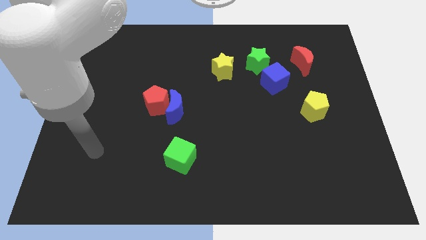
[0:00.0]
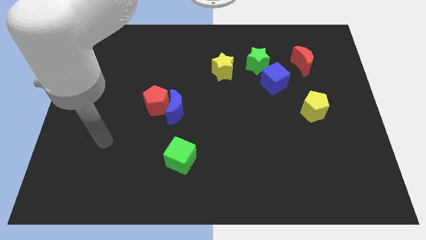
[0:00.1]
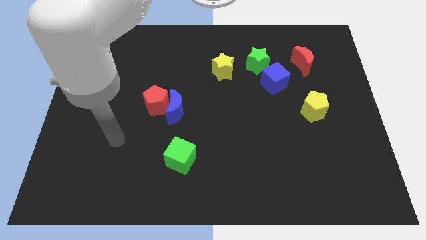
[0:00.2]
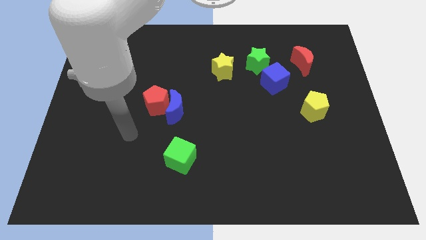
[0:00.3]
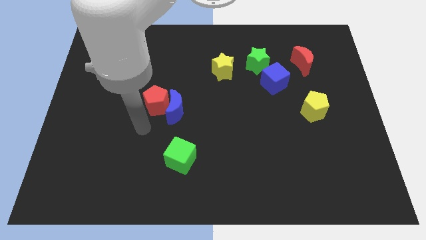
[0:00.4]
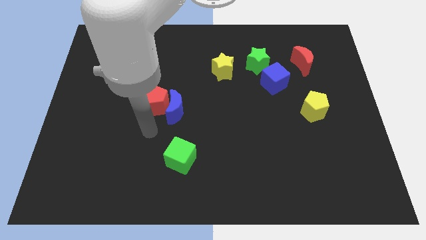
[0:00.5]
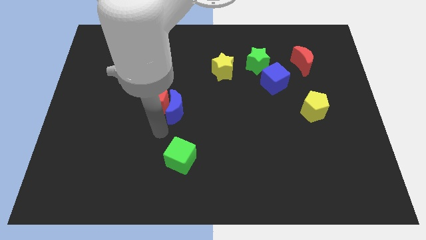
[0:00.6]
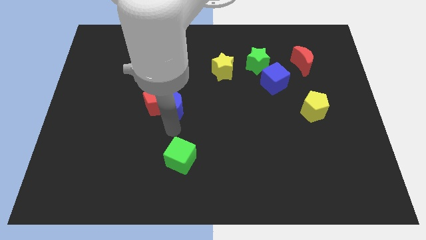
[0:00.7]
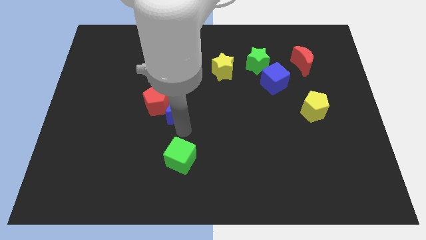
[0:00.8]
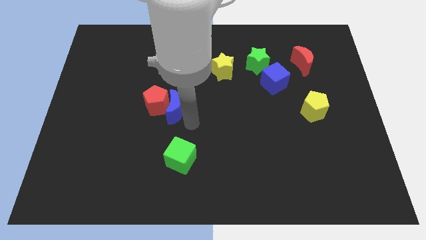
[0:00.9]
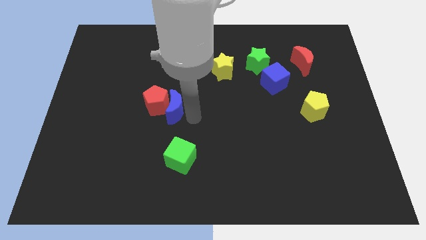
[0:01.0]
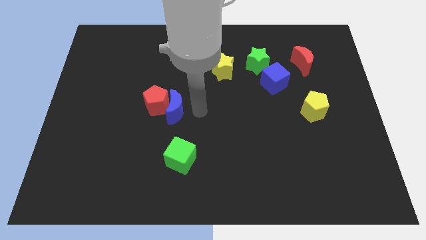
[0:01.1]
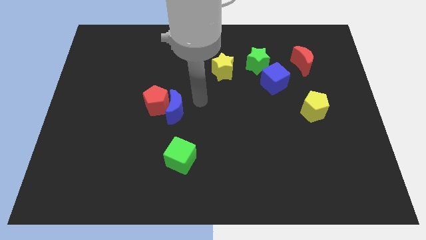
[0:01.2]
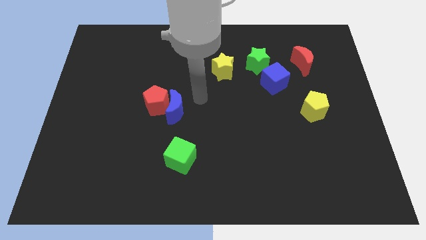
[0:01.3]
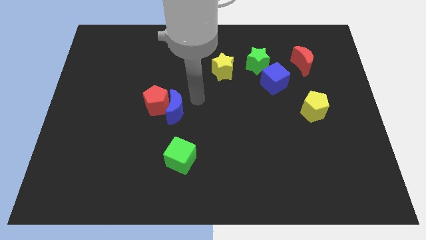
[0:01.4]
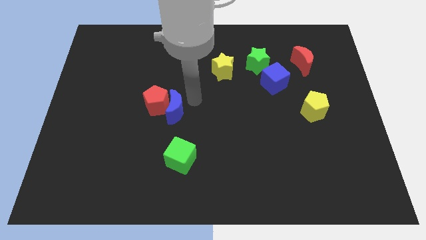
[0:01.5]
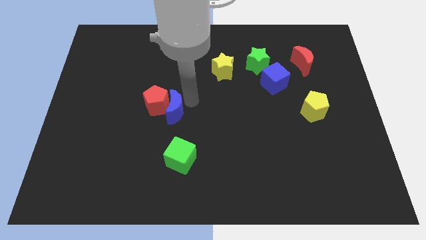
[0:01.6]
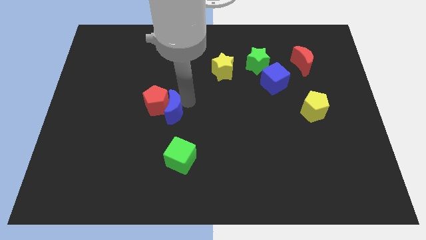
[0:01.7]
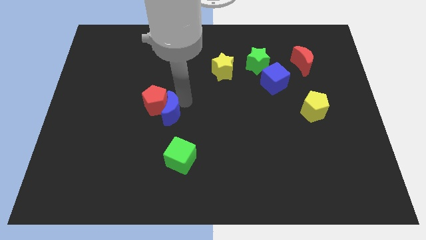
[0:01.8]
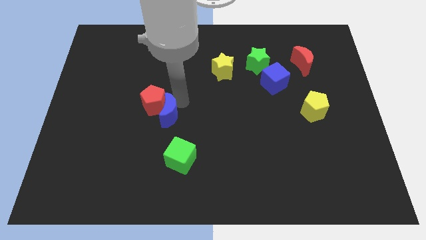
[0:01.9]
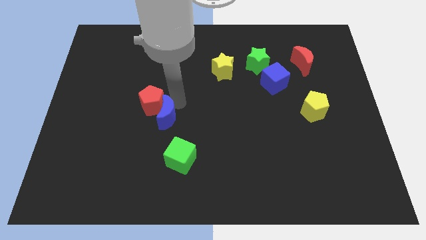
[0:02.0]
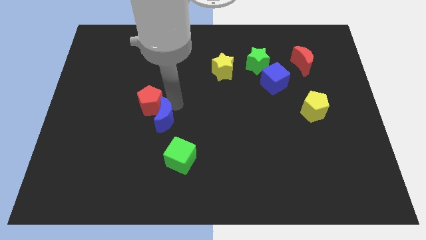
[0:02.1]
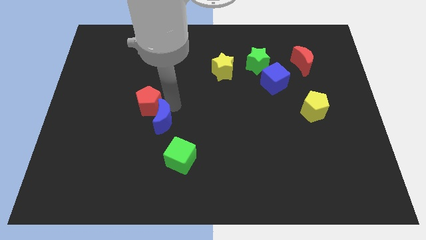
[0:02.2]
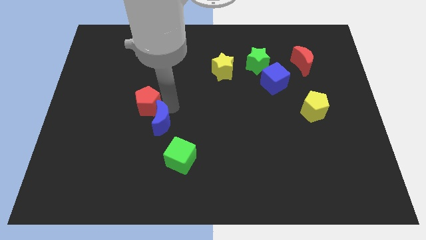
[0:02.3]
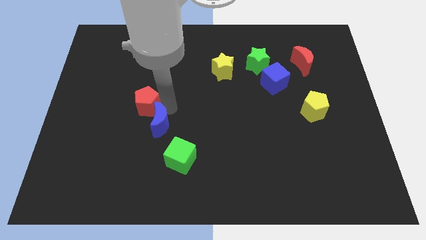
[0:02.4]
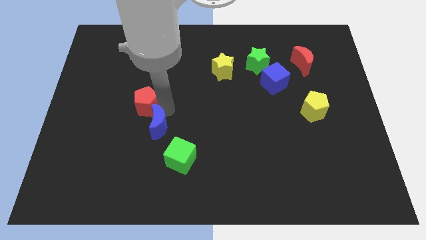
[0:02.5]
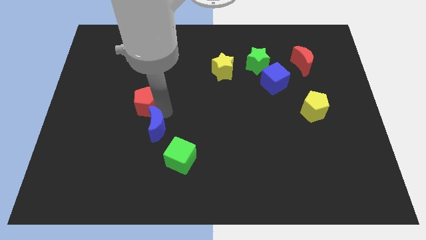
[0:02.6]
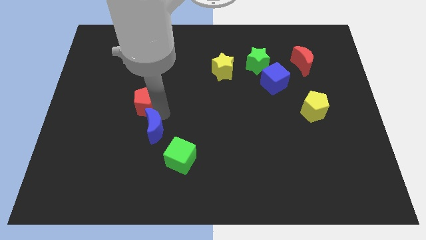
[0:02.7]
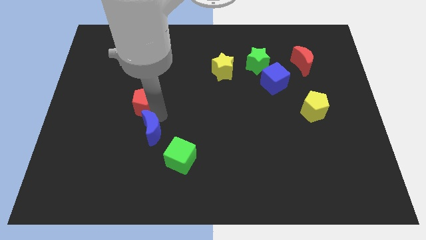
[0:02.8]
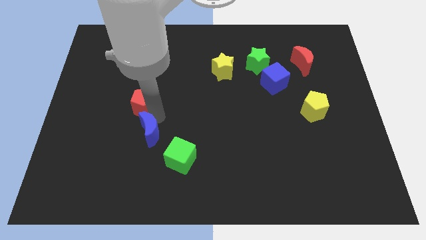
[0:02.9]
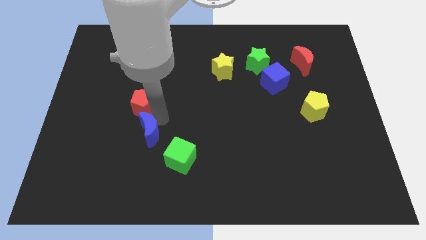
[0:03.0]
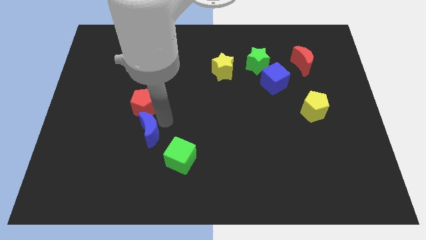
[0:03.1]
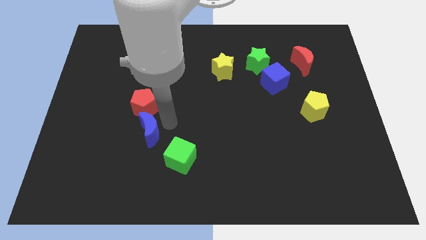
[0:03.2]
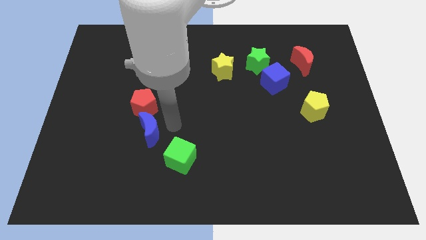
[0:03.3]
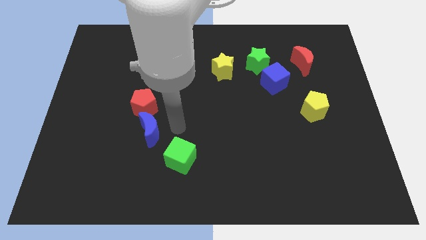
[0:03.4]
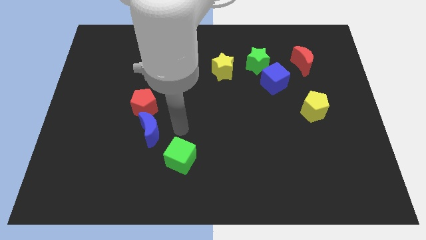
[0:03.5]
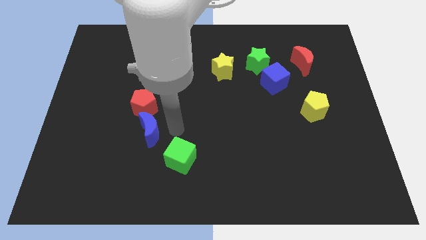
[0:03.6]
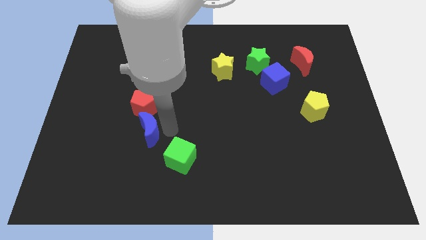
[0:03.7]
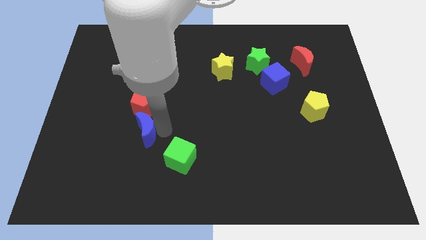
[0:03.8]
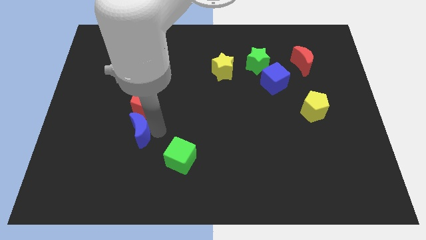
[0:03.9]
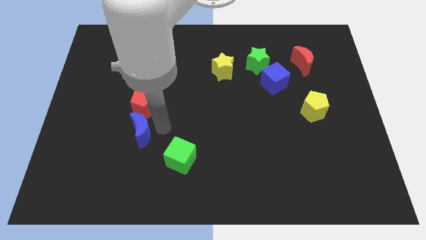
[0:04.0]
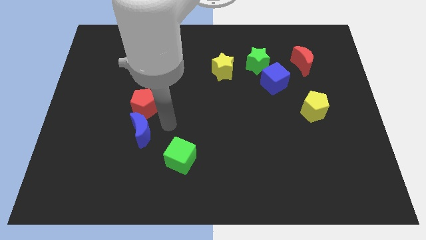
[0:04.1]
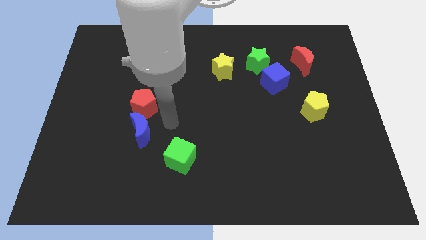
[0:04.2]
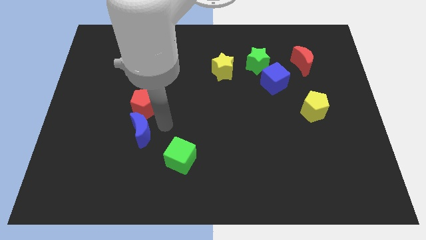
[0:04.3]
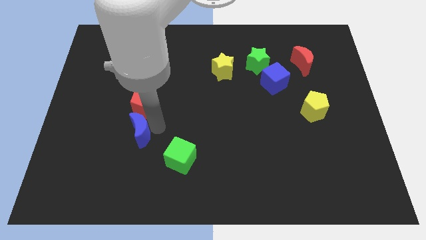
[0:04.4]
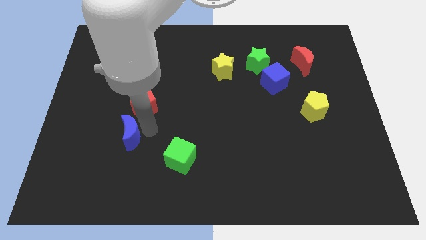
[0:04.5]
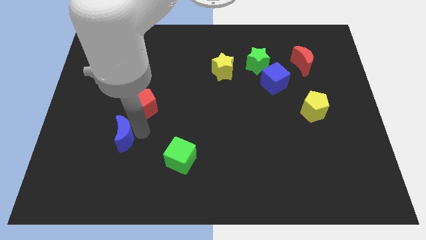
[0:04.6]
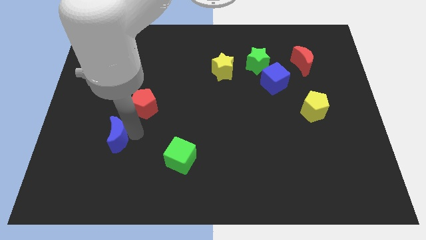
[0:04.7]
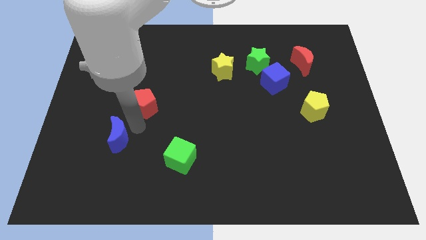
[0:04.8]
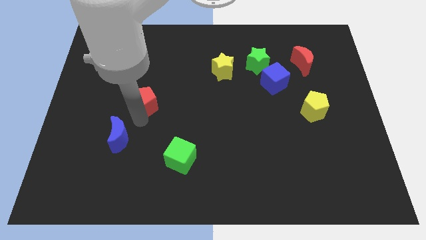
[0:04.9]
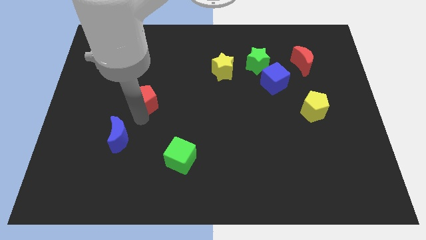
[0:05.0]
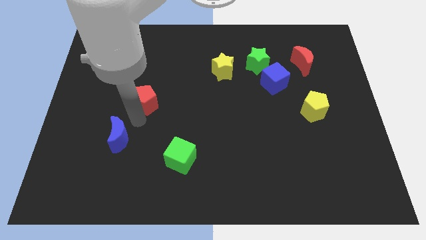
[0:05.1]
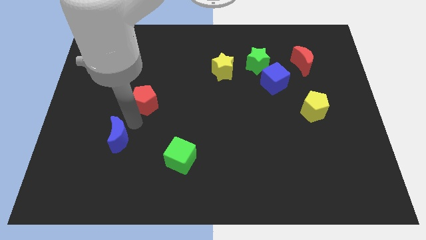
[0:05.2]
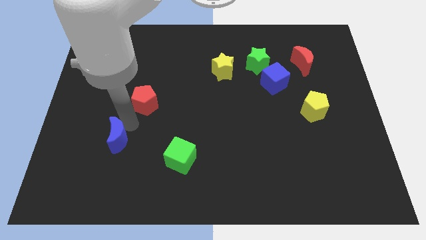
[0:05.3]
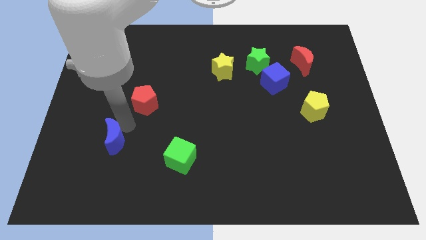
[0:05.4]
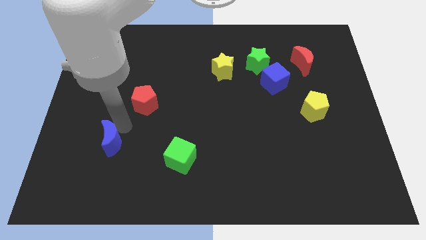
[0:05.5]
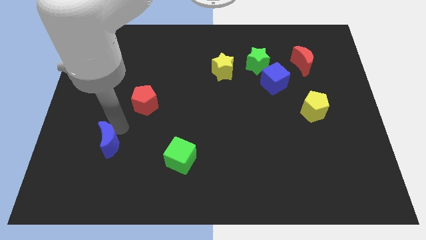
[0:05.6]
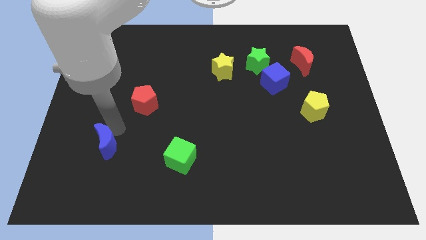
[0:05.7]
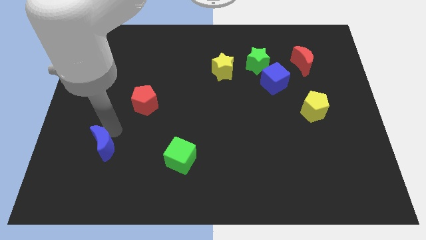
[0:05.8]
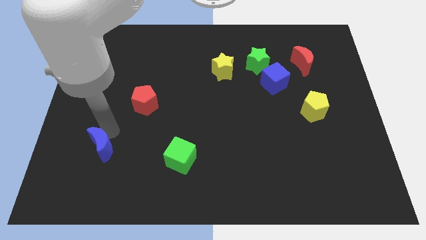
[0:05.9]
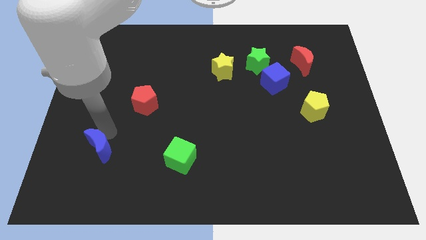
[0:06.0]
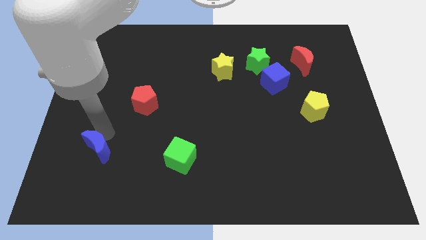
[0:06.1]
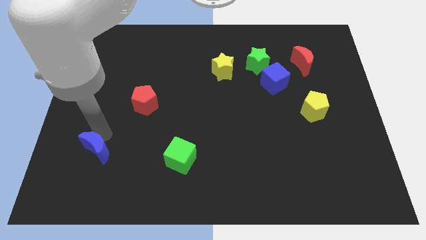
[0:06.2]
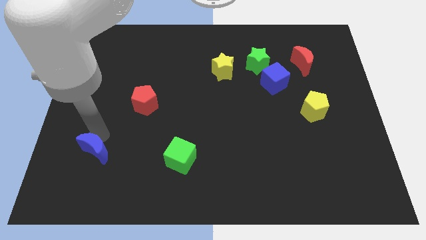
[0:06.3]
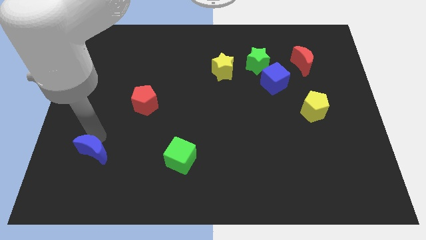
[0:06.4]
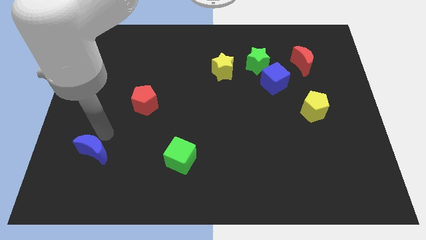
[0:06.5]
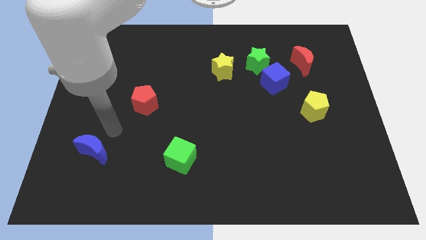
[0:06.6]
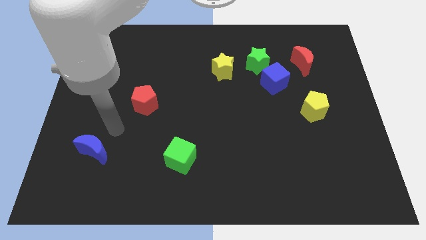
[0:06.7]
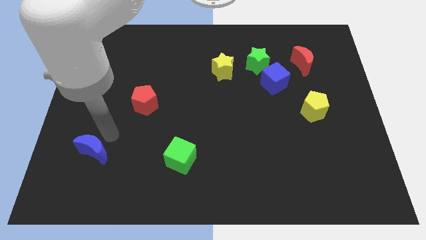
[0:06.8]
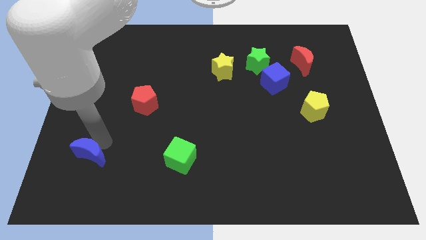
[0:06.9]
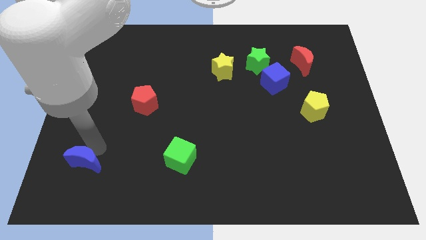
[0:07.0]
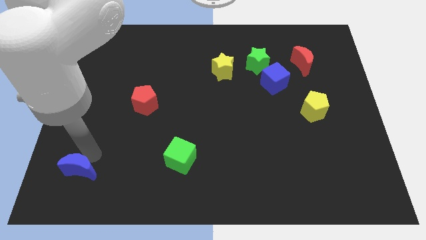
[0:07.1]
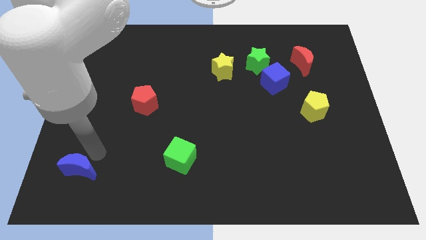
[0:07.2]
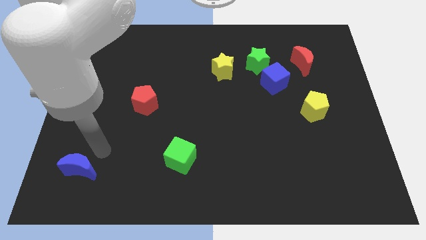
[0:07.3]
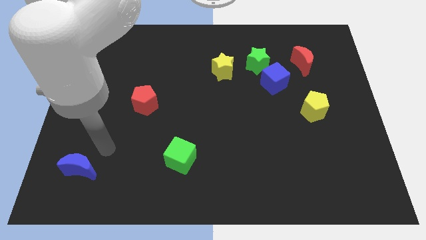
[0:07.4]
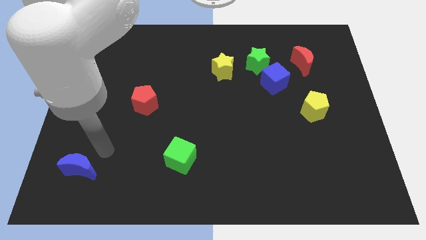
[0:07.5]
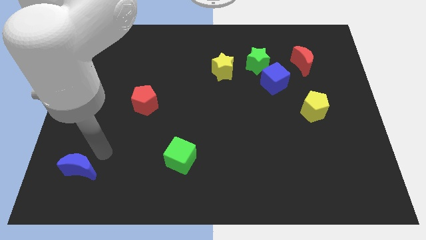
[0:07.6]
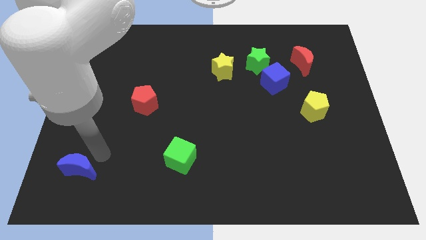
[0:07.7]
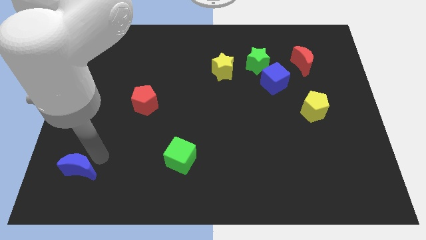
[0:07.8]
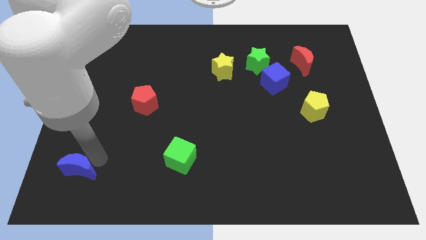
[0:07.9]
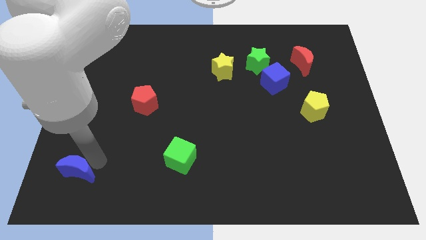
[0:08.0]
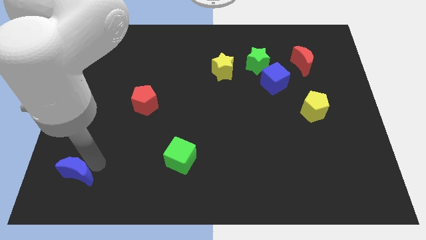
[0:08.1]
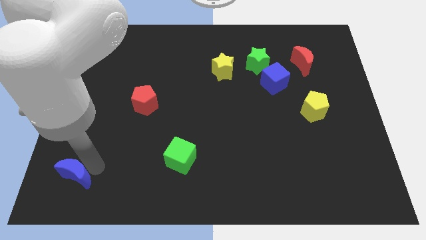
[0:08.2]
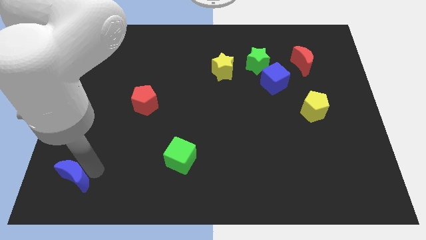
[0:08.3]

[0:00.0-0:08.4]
move the blue moon to the bottom left
